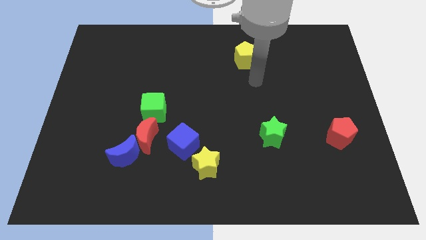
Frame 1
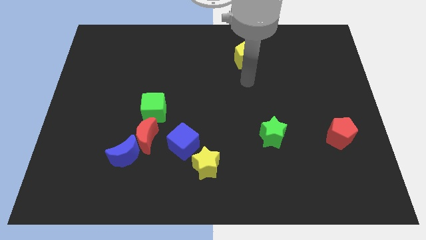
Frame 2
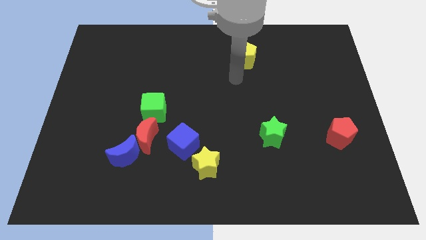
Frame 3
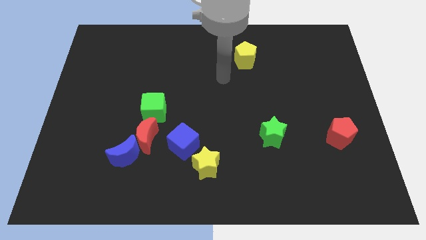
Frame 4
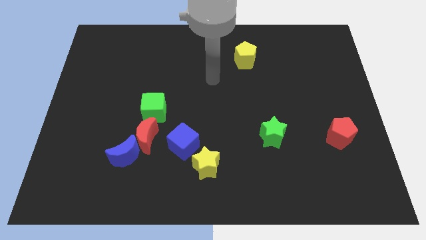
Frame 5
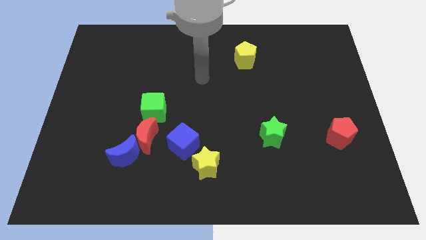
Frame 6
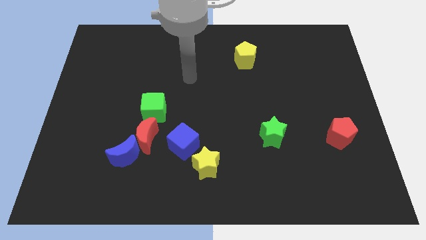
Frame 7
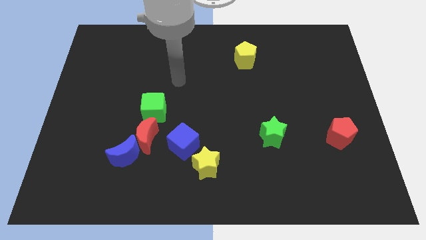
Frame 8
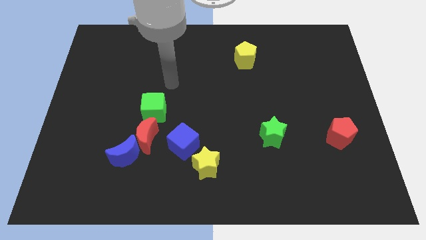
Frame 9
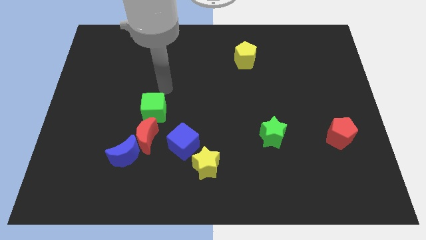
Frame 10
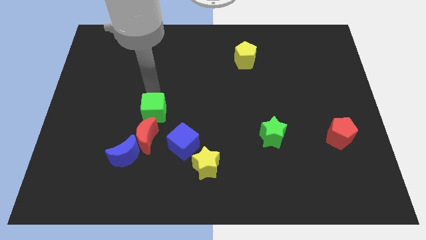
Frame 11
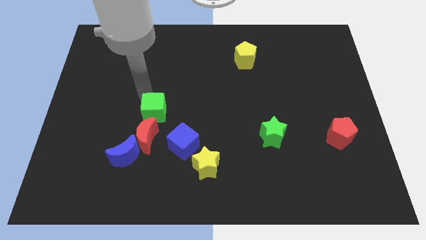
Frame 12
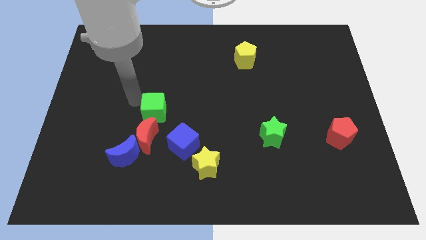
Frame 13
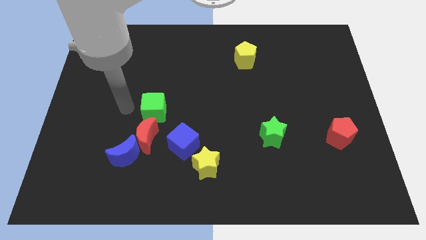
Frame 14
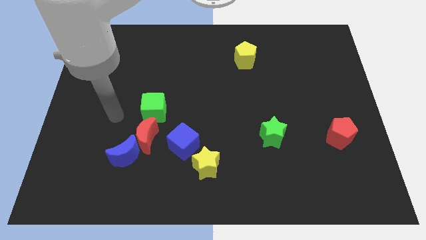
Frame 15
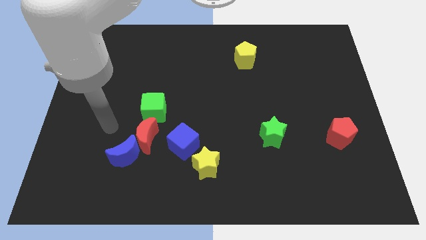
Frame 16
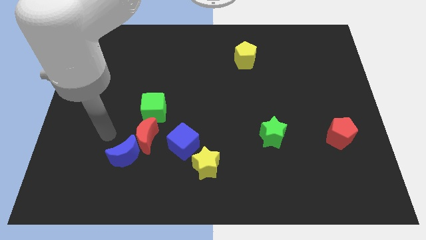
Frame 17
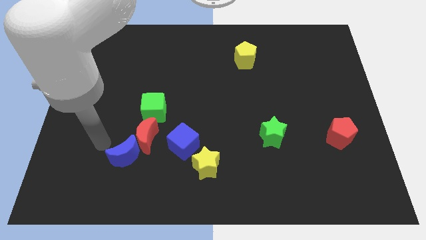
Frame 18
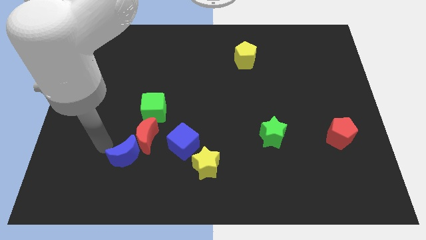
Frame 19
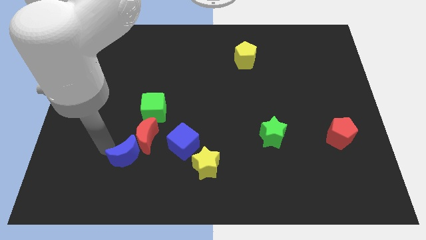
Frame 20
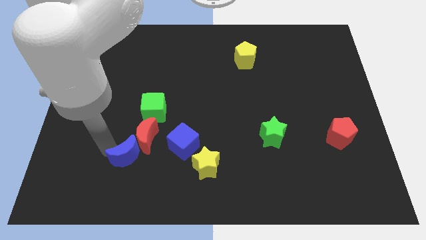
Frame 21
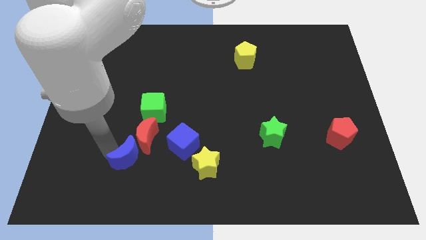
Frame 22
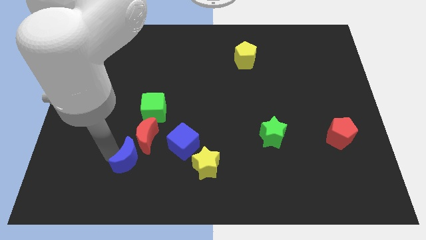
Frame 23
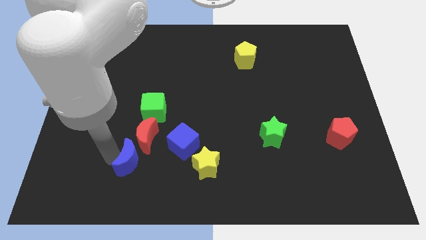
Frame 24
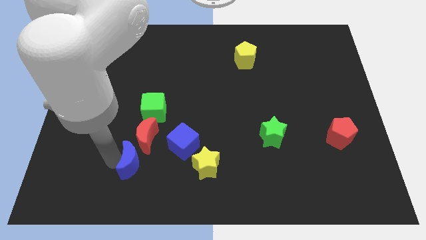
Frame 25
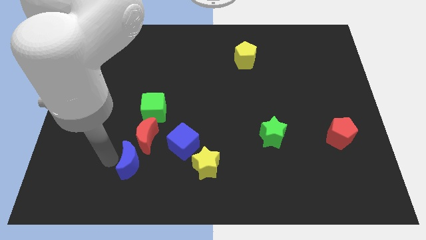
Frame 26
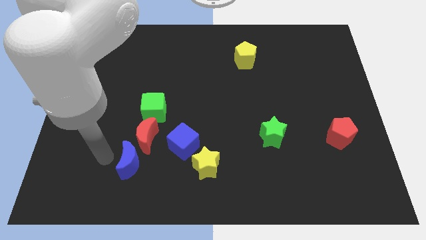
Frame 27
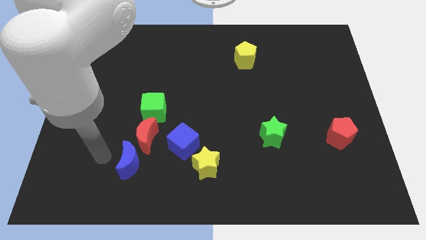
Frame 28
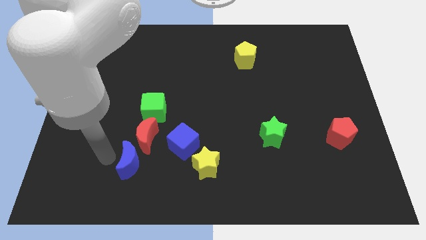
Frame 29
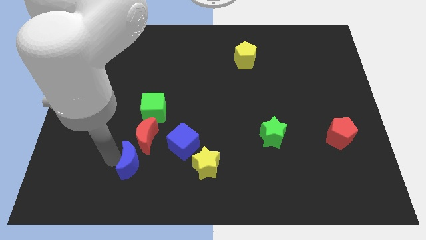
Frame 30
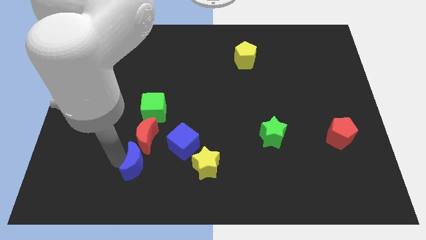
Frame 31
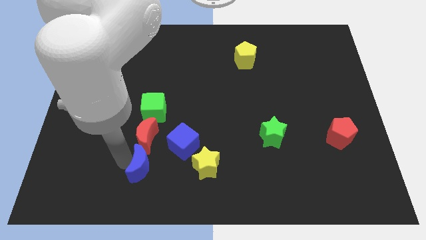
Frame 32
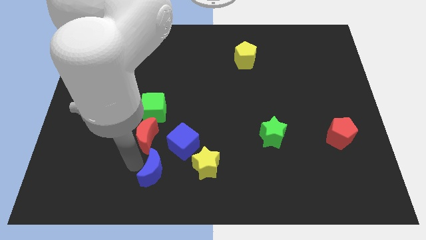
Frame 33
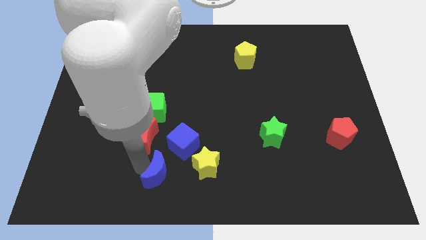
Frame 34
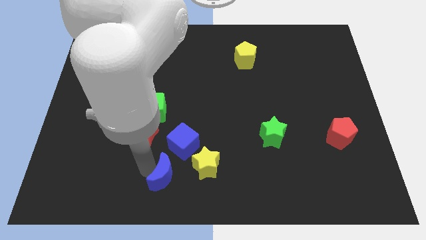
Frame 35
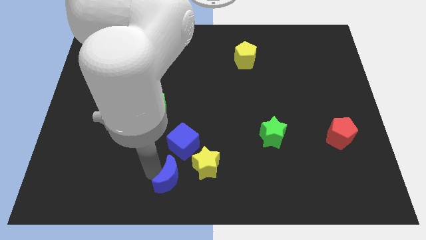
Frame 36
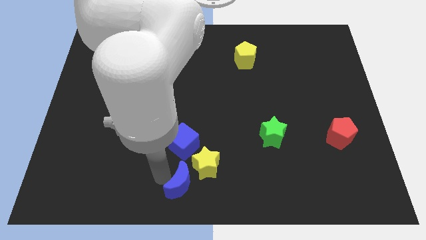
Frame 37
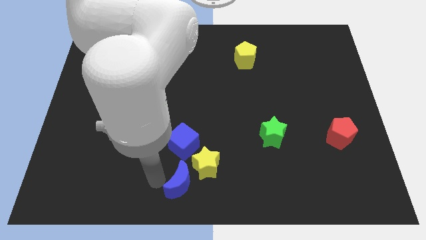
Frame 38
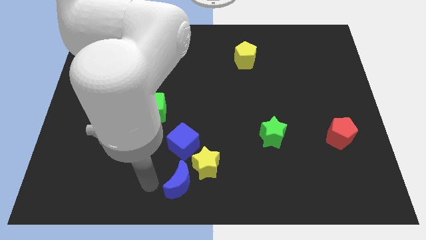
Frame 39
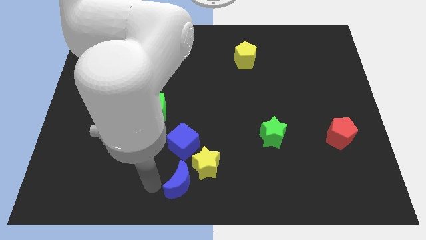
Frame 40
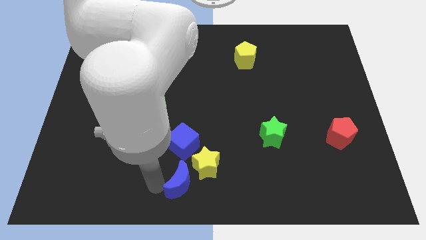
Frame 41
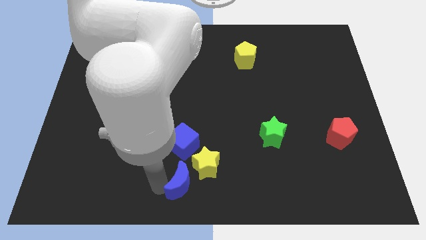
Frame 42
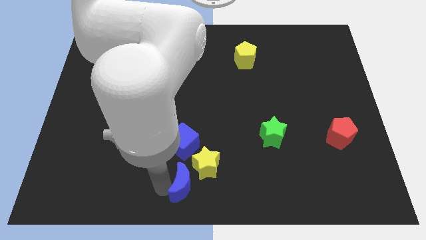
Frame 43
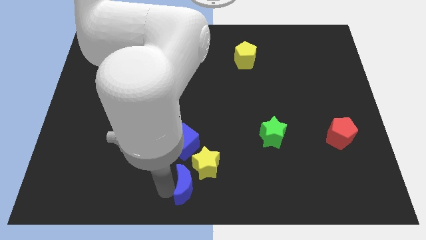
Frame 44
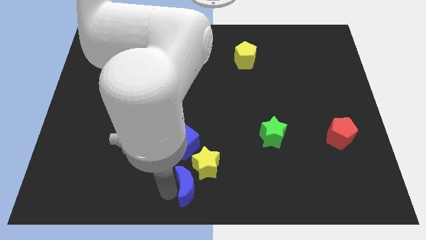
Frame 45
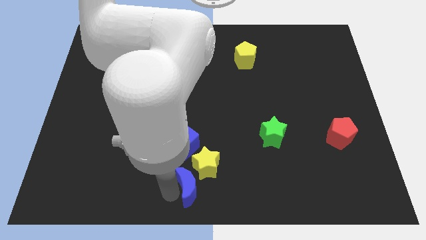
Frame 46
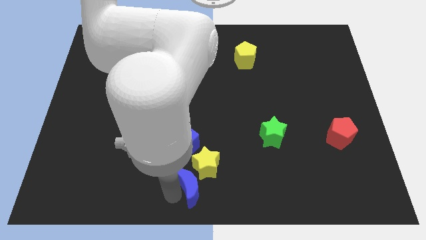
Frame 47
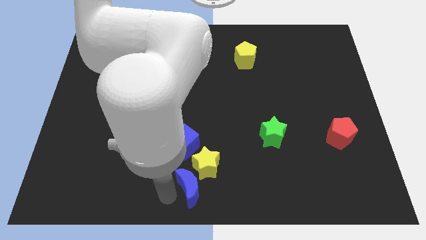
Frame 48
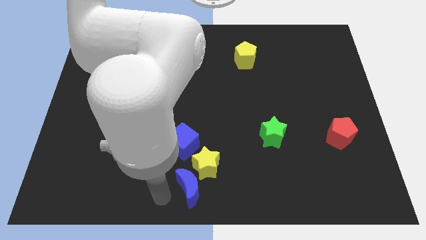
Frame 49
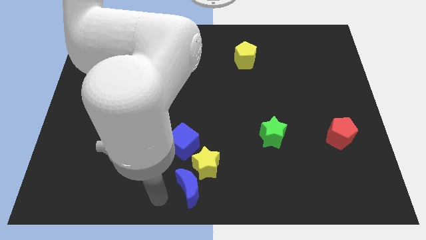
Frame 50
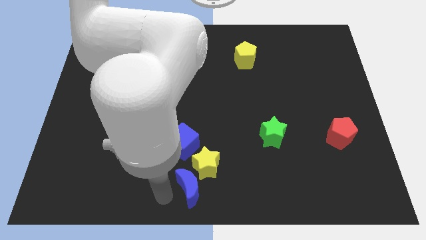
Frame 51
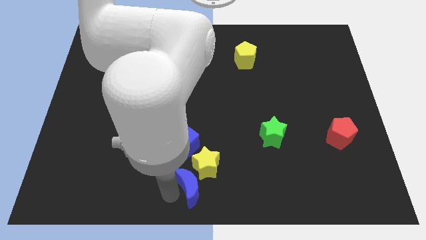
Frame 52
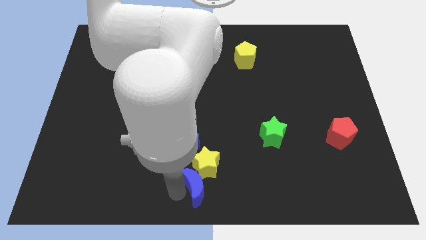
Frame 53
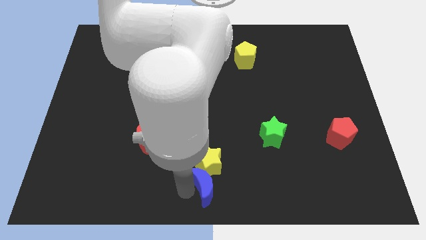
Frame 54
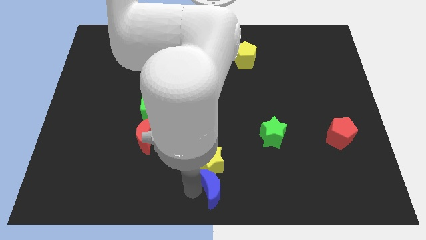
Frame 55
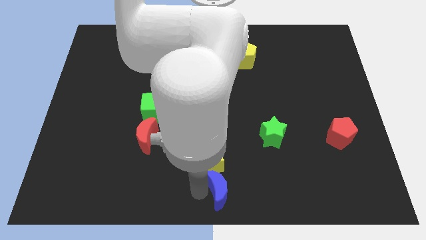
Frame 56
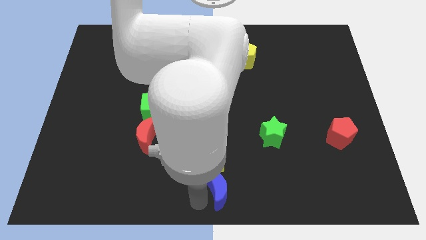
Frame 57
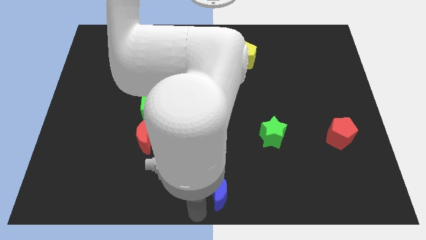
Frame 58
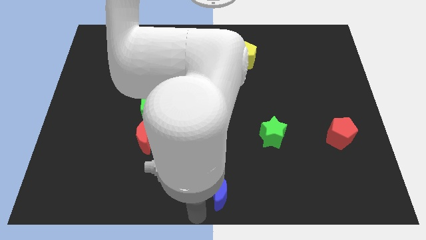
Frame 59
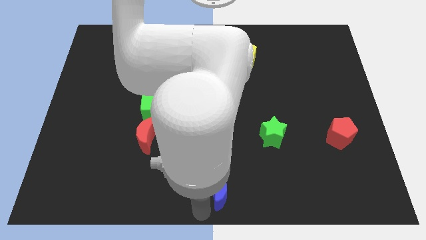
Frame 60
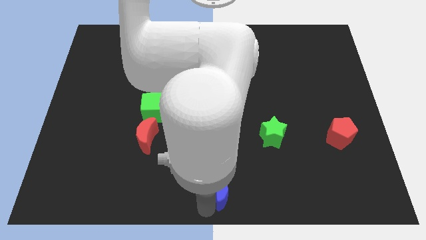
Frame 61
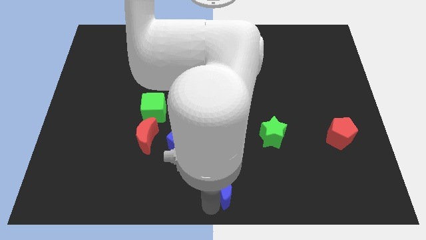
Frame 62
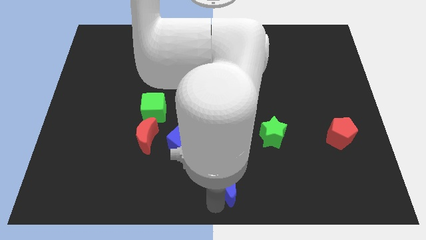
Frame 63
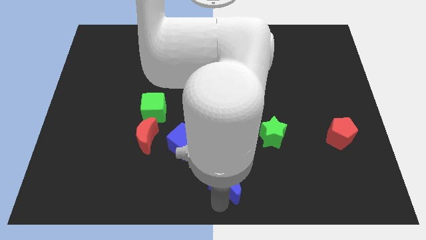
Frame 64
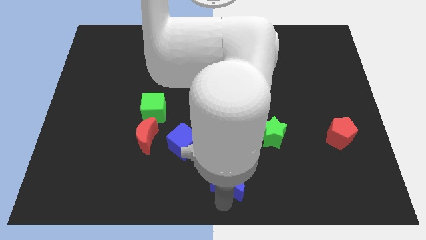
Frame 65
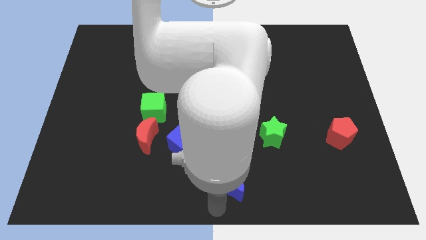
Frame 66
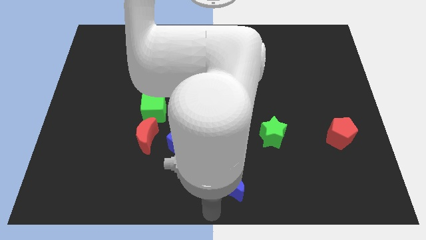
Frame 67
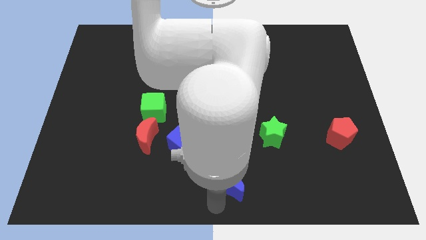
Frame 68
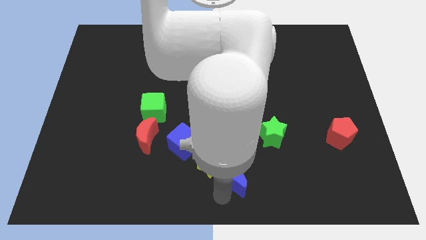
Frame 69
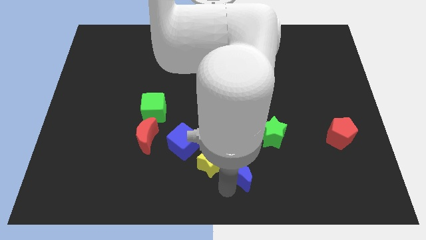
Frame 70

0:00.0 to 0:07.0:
slide the blue moon to the bottom left side of the green star
